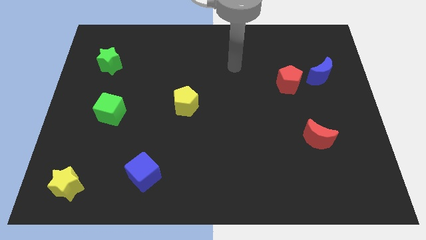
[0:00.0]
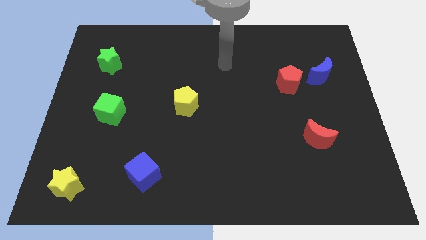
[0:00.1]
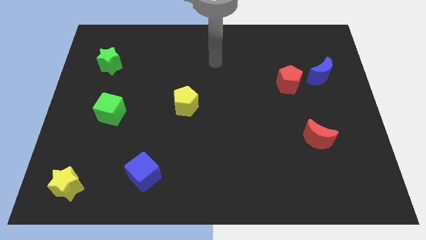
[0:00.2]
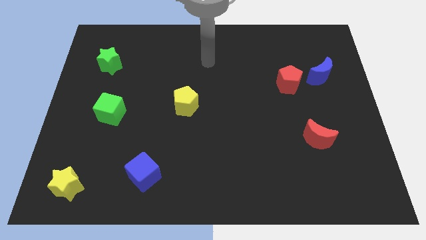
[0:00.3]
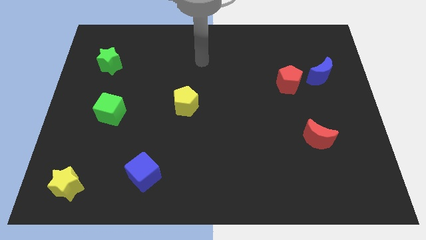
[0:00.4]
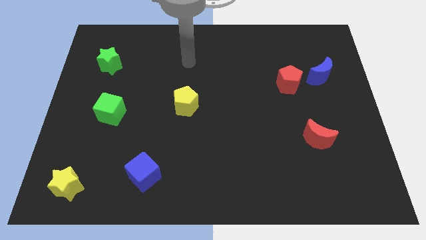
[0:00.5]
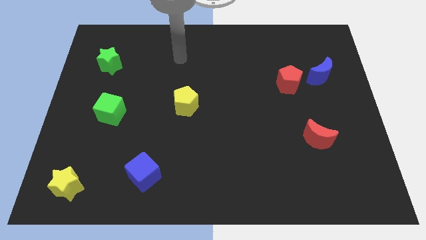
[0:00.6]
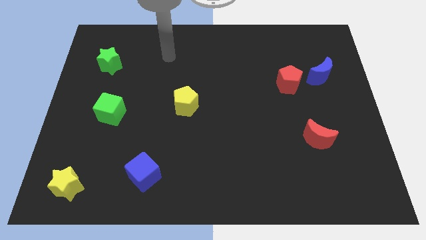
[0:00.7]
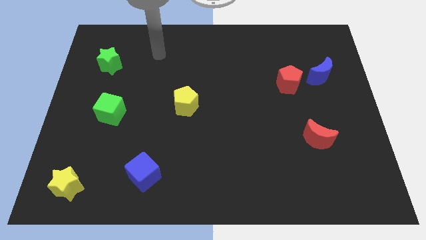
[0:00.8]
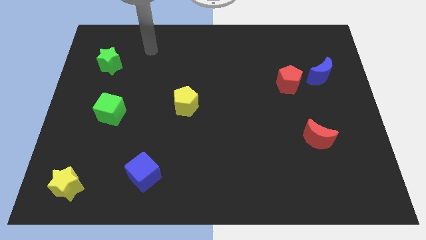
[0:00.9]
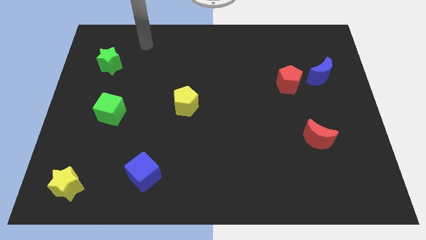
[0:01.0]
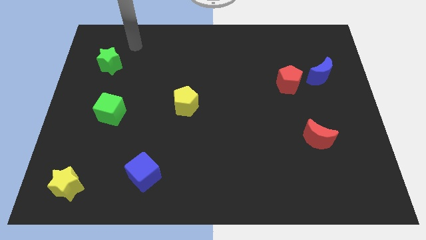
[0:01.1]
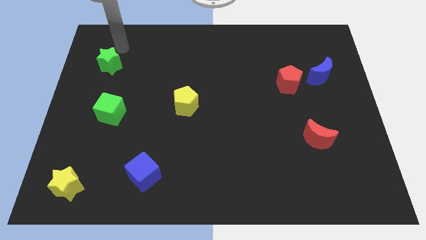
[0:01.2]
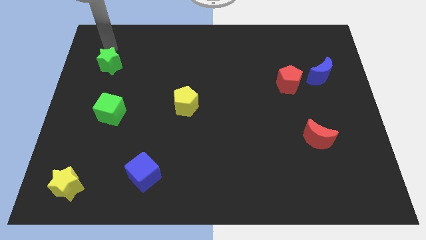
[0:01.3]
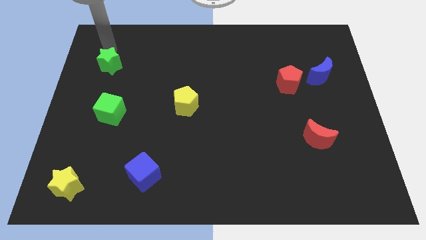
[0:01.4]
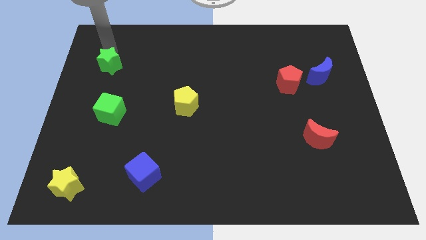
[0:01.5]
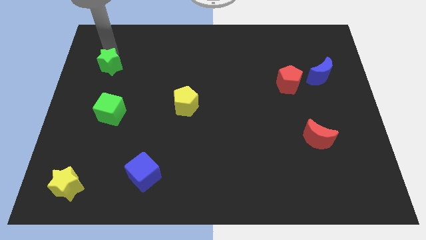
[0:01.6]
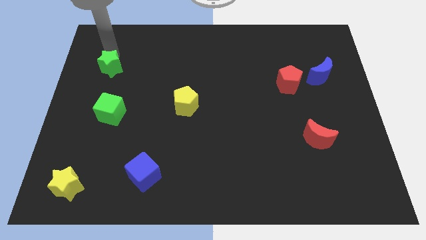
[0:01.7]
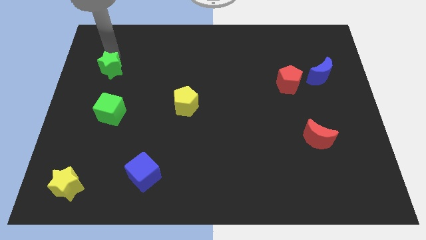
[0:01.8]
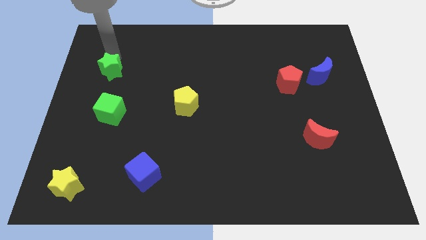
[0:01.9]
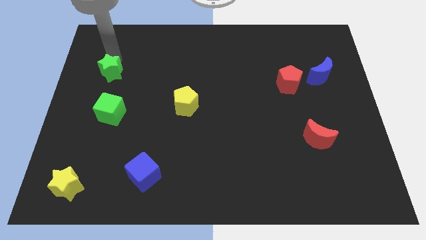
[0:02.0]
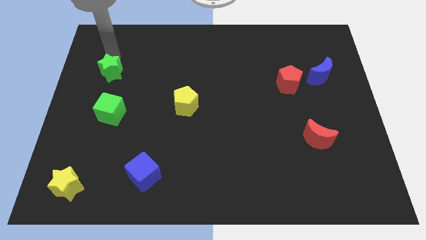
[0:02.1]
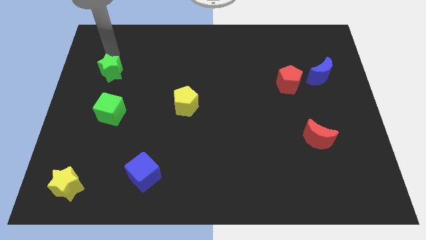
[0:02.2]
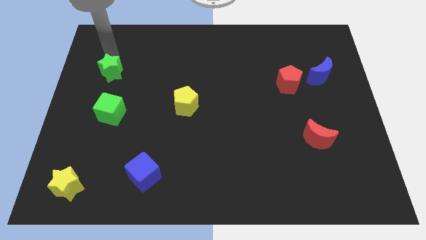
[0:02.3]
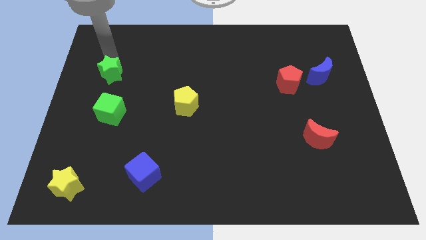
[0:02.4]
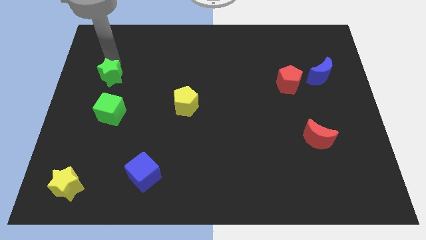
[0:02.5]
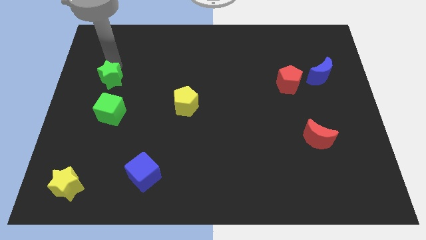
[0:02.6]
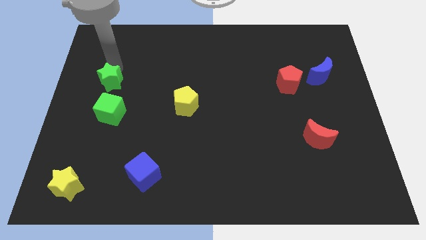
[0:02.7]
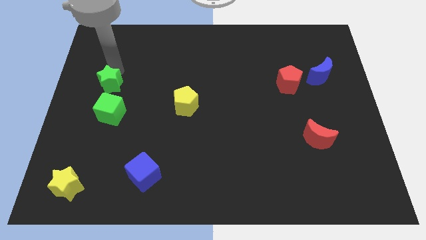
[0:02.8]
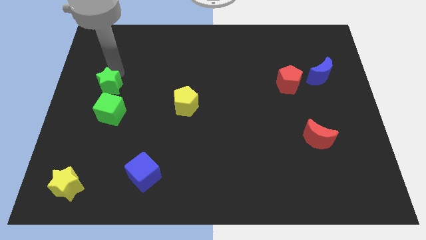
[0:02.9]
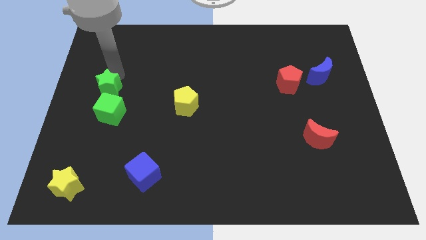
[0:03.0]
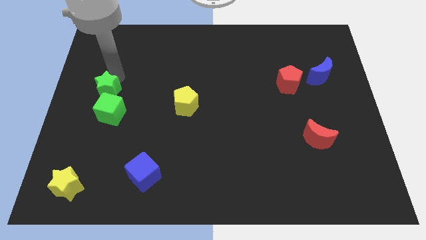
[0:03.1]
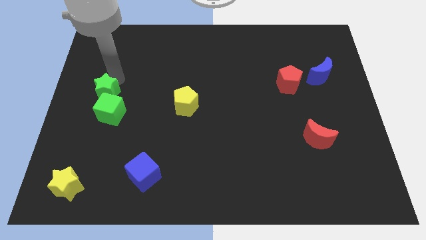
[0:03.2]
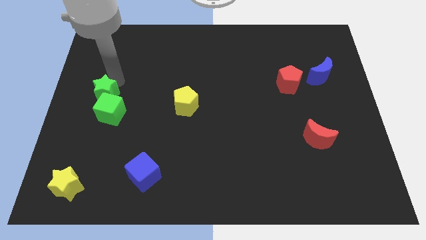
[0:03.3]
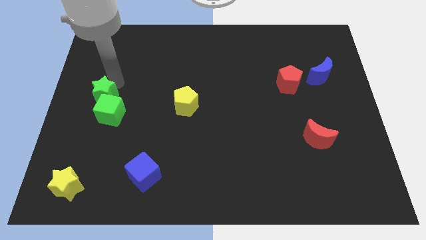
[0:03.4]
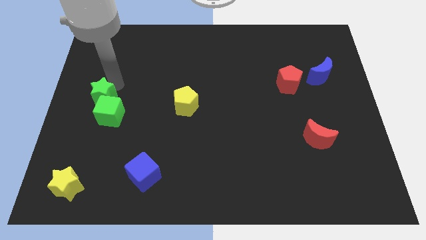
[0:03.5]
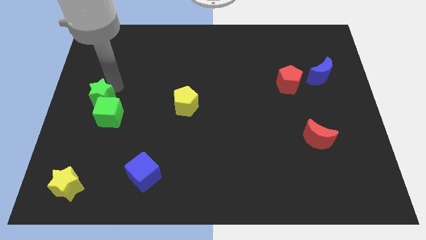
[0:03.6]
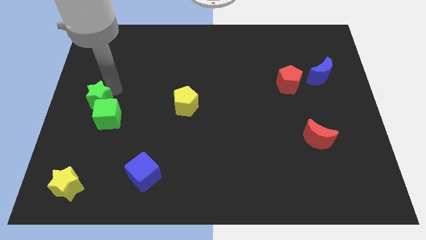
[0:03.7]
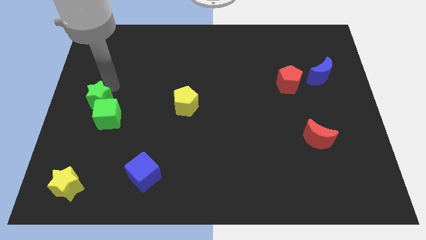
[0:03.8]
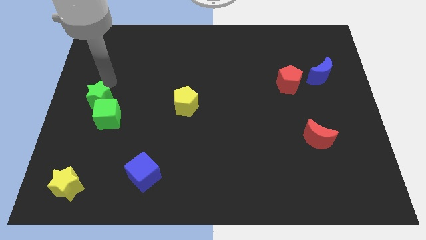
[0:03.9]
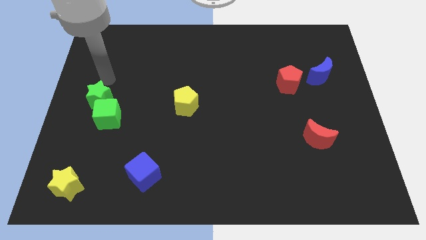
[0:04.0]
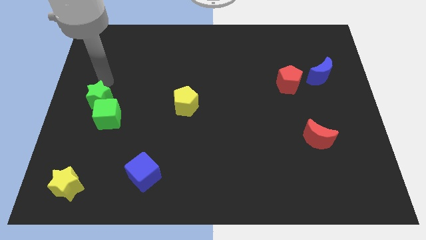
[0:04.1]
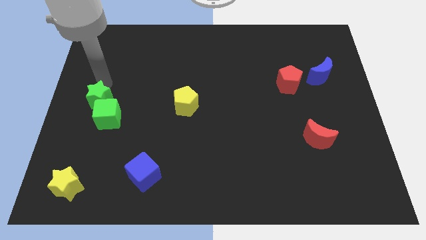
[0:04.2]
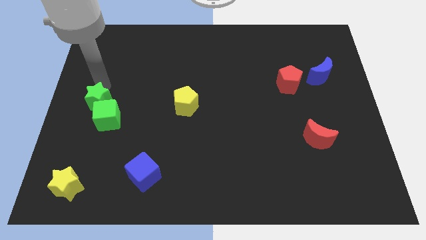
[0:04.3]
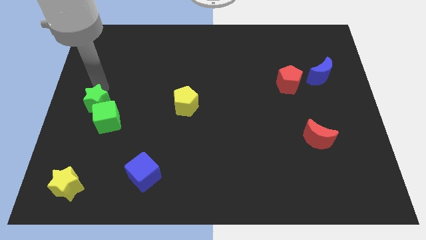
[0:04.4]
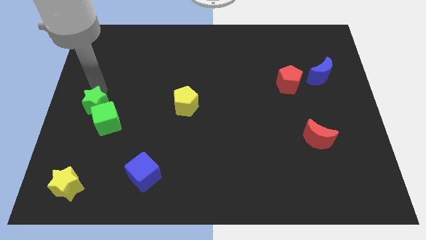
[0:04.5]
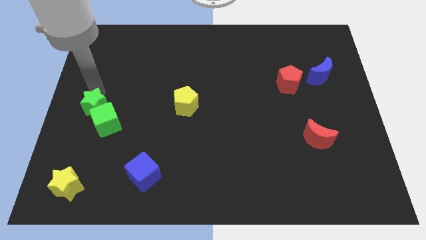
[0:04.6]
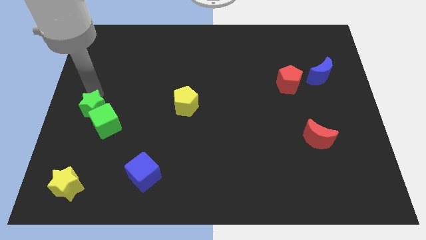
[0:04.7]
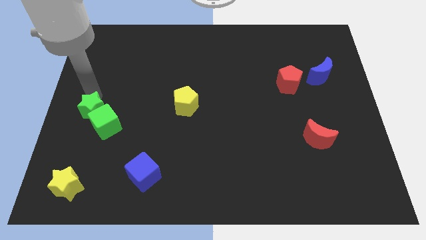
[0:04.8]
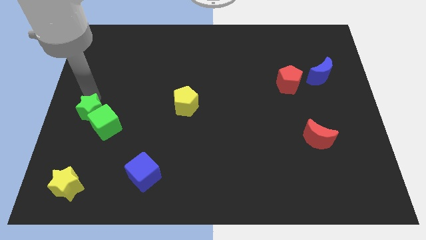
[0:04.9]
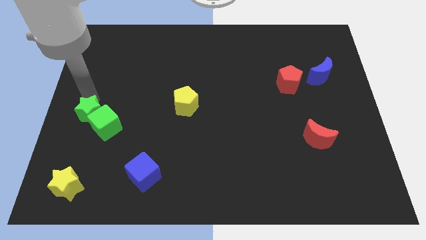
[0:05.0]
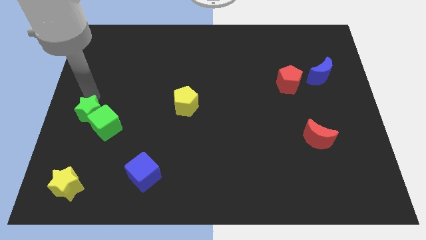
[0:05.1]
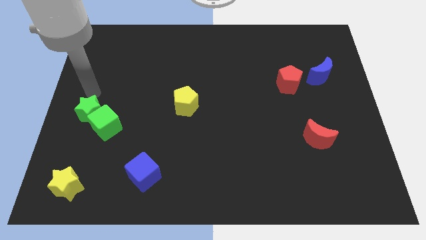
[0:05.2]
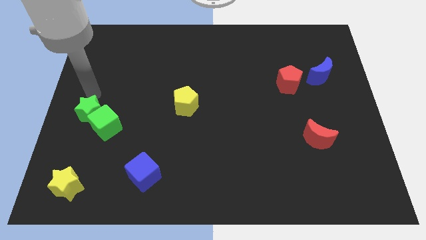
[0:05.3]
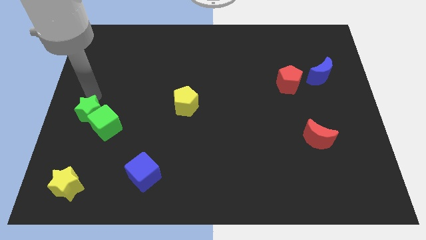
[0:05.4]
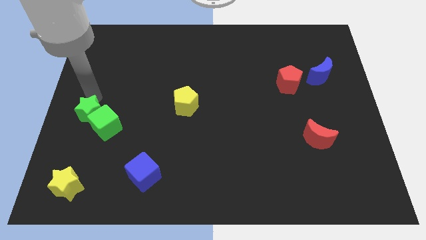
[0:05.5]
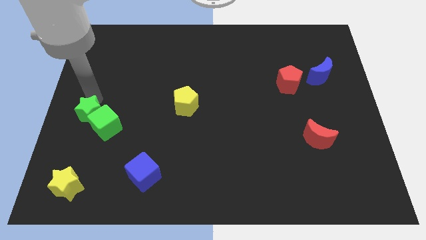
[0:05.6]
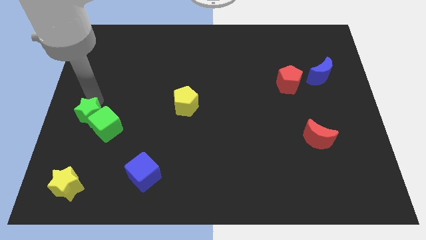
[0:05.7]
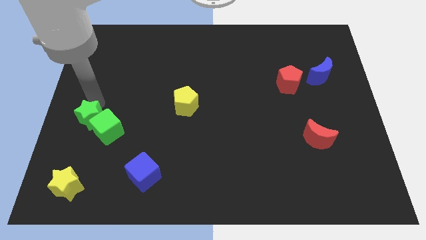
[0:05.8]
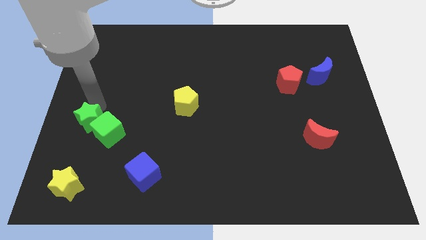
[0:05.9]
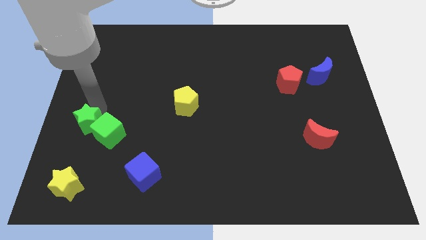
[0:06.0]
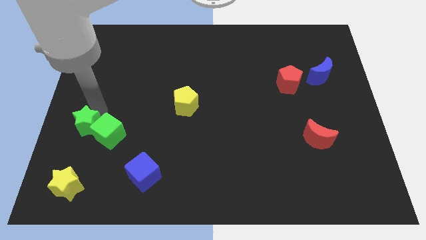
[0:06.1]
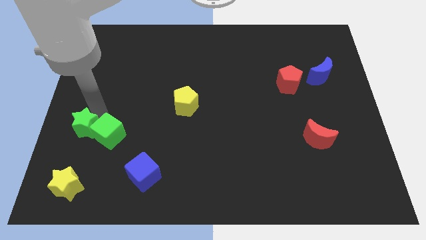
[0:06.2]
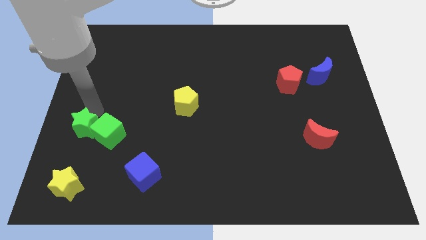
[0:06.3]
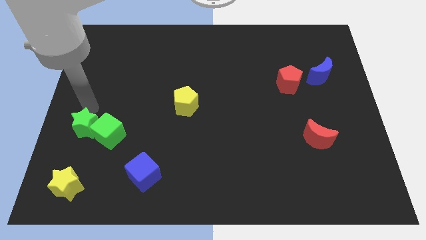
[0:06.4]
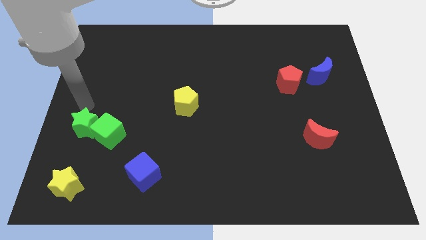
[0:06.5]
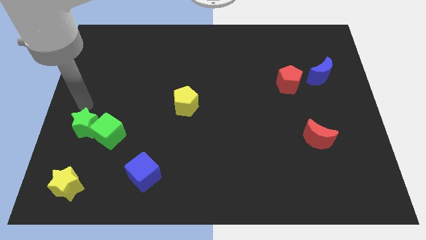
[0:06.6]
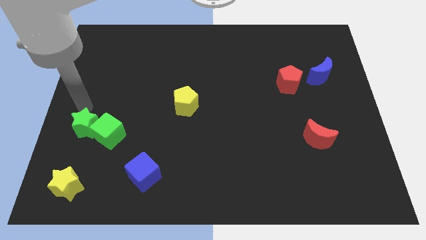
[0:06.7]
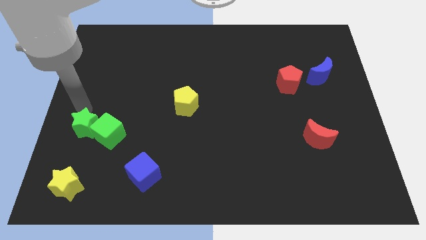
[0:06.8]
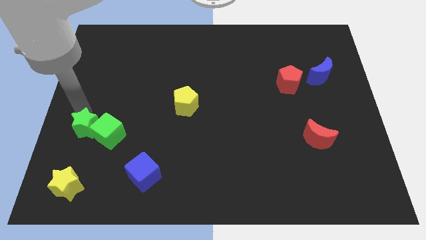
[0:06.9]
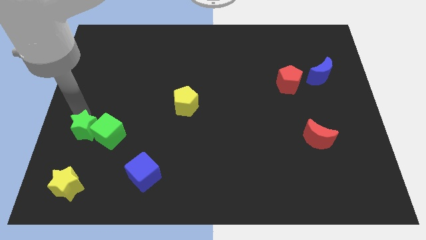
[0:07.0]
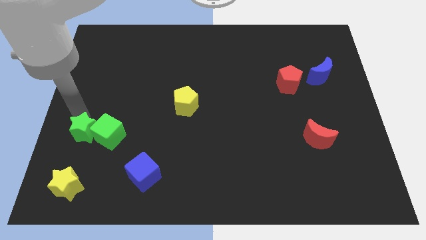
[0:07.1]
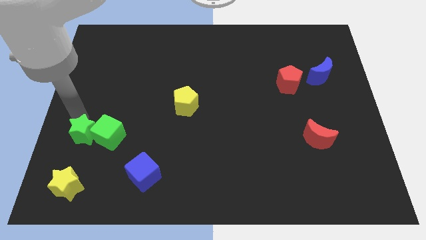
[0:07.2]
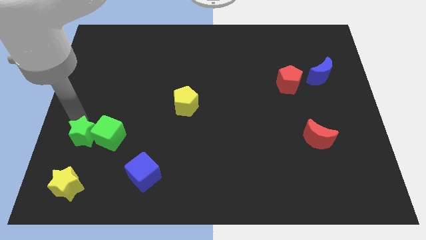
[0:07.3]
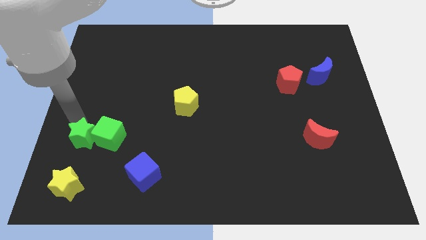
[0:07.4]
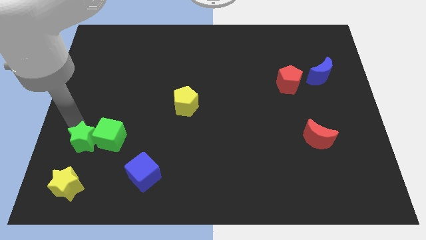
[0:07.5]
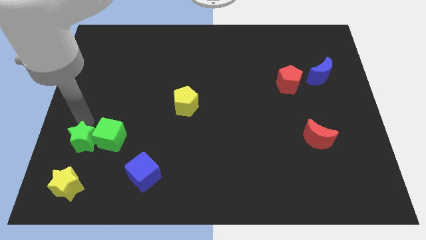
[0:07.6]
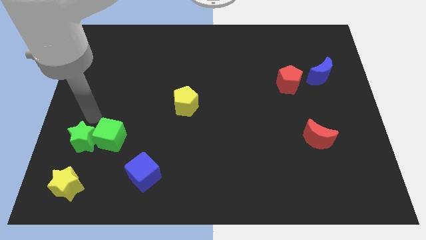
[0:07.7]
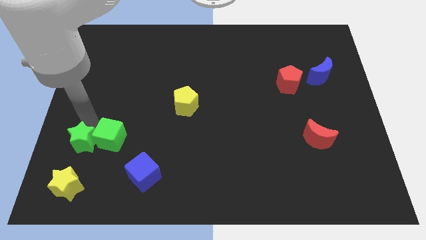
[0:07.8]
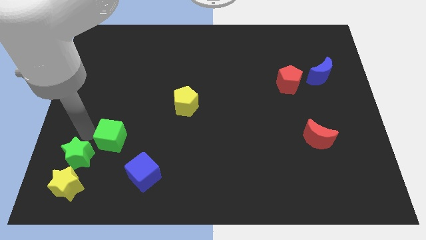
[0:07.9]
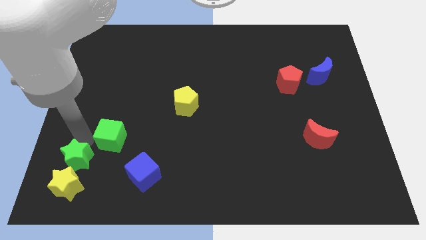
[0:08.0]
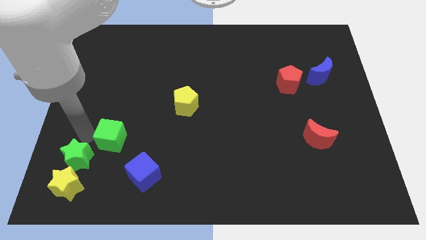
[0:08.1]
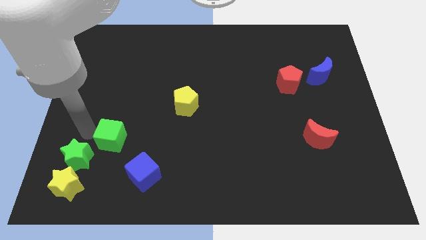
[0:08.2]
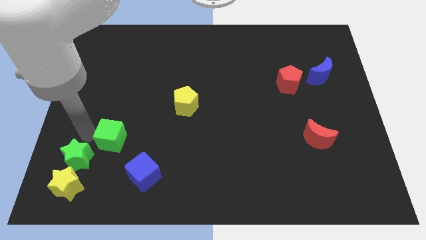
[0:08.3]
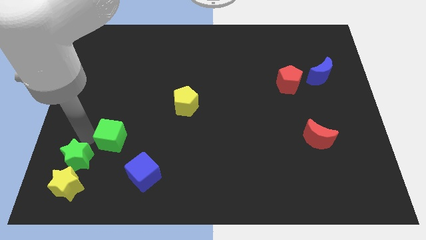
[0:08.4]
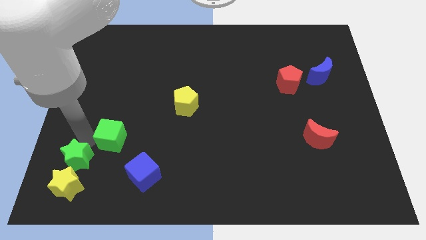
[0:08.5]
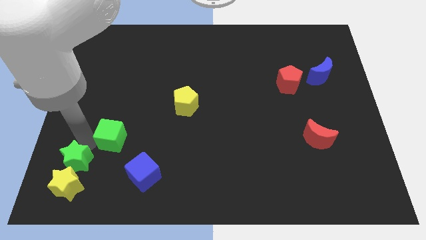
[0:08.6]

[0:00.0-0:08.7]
push the green star towards the yellow star
